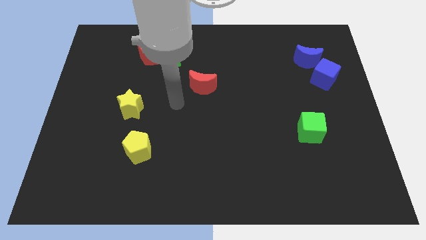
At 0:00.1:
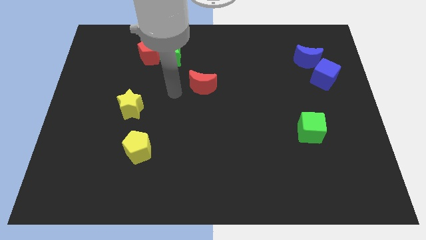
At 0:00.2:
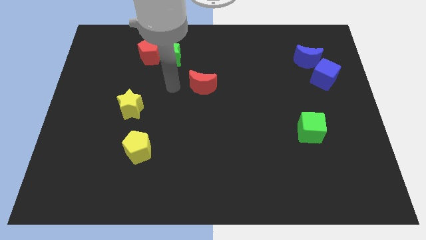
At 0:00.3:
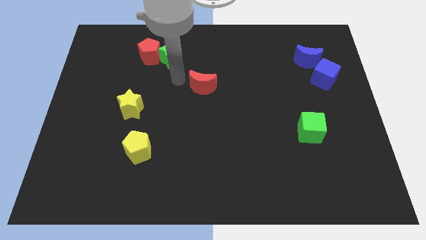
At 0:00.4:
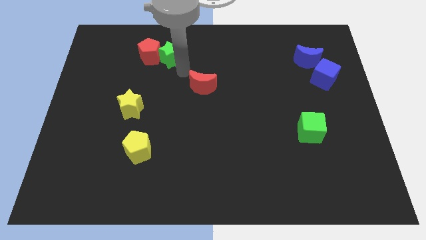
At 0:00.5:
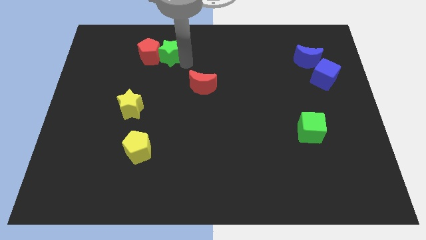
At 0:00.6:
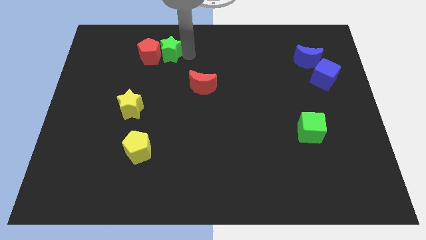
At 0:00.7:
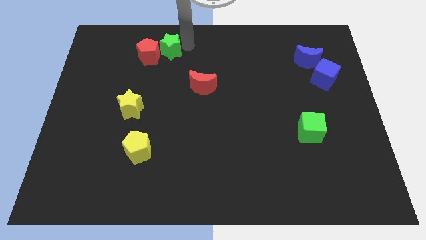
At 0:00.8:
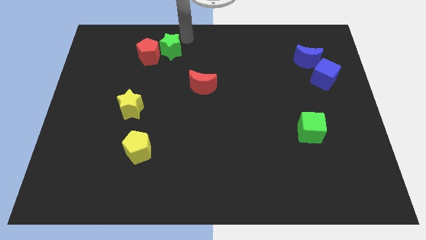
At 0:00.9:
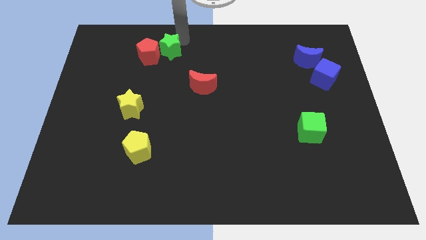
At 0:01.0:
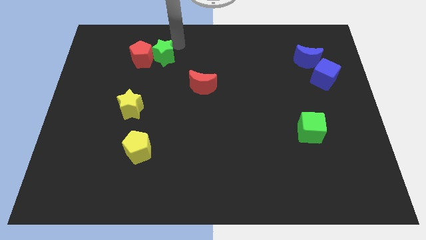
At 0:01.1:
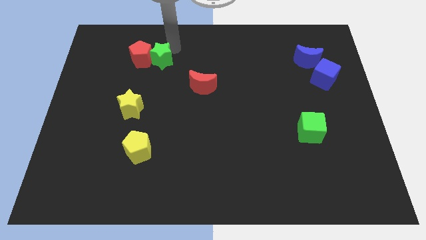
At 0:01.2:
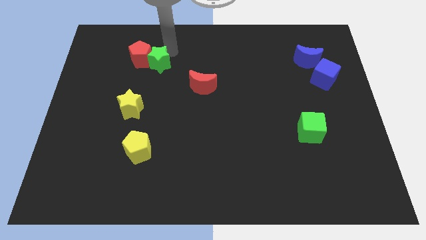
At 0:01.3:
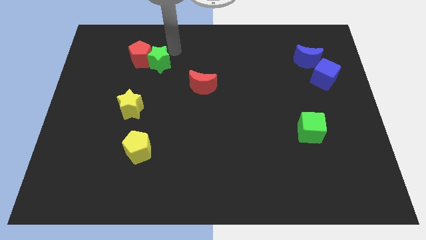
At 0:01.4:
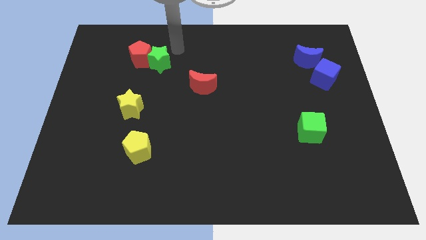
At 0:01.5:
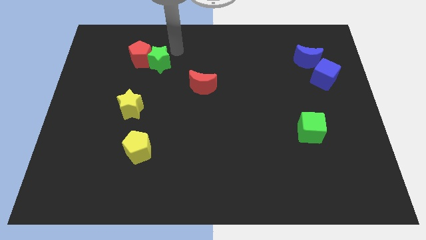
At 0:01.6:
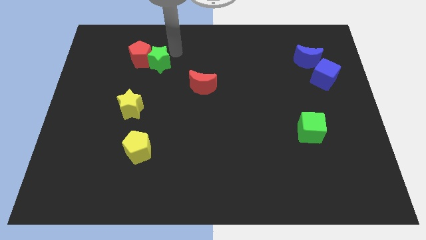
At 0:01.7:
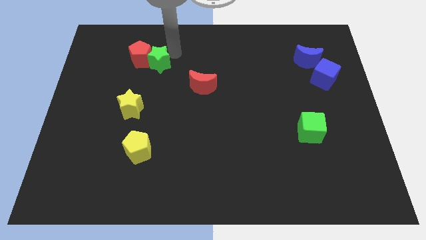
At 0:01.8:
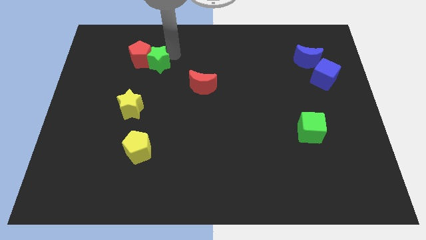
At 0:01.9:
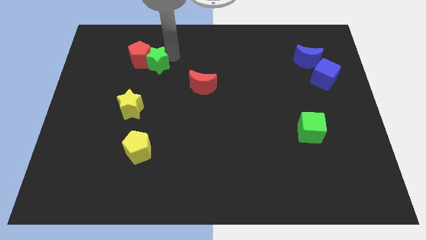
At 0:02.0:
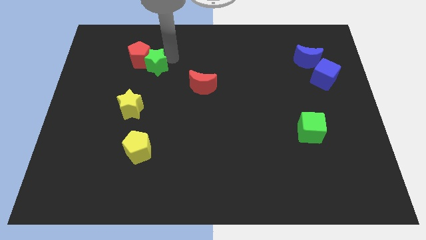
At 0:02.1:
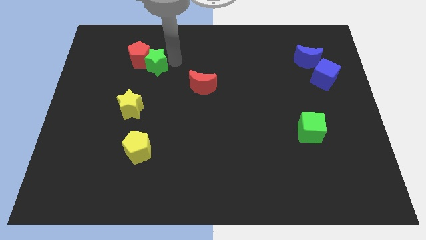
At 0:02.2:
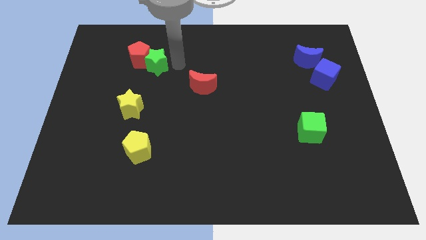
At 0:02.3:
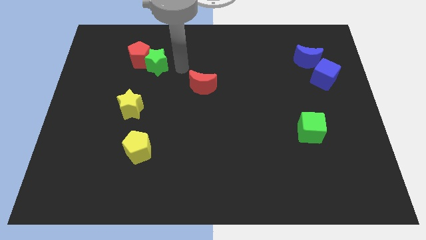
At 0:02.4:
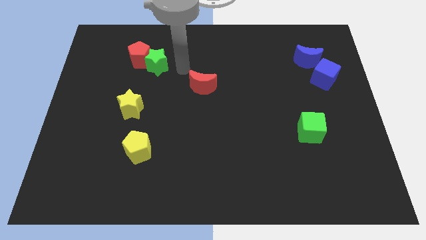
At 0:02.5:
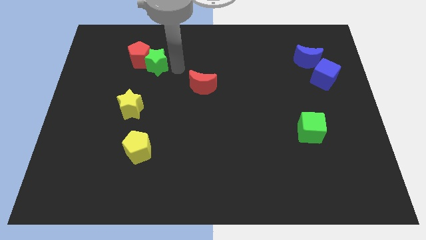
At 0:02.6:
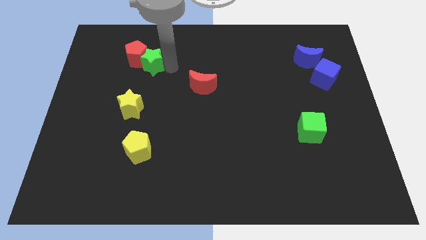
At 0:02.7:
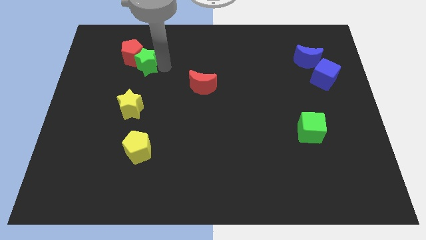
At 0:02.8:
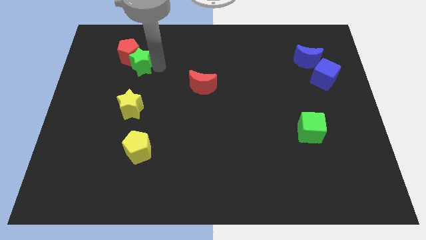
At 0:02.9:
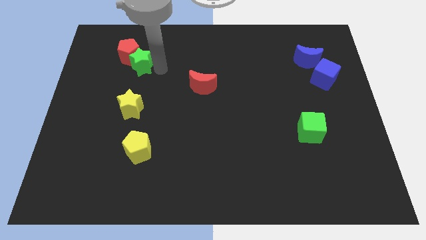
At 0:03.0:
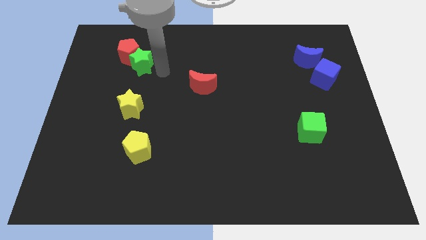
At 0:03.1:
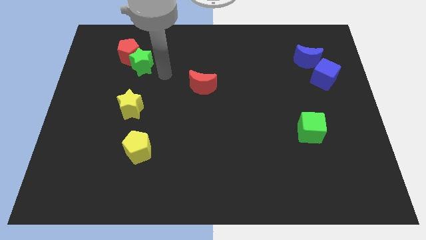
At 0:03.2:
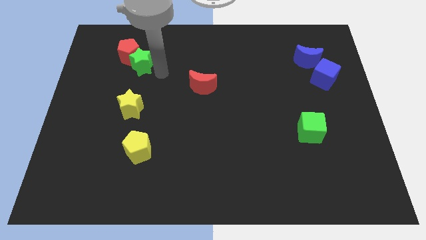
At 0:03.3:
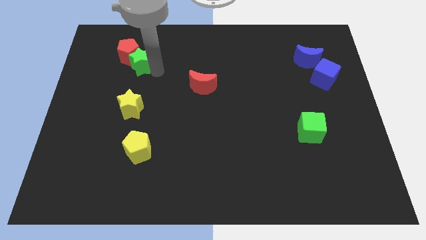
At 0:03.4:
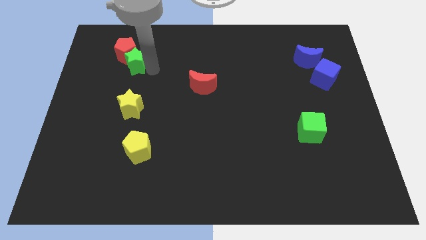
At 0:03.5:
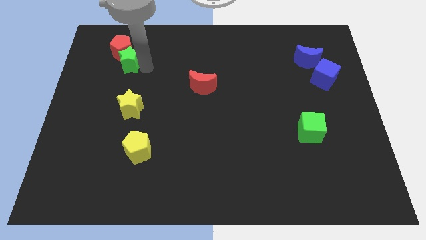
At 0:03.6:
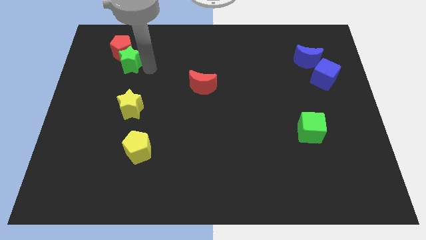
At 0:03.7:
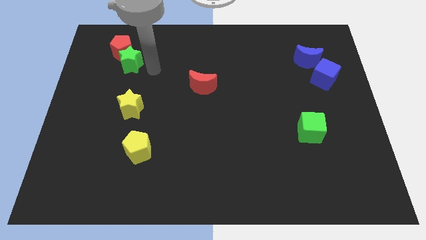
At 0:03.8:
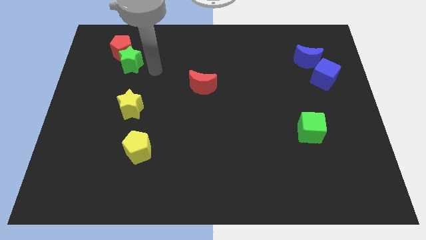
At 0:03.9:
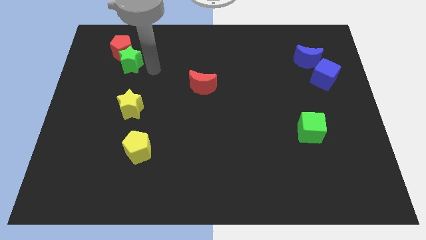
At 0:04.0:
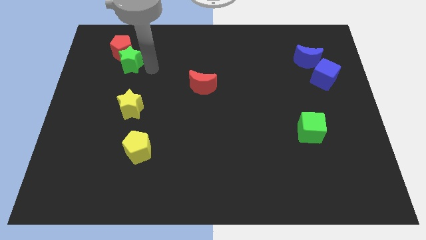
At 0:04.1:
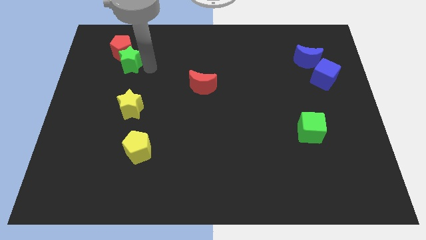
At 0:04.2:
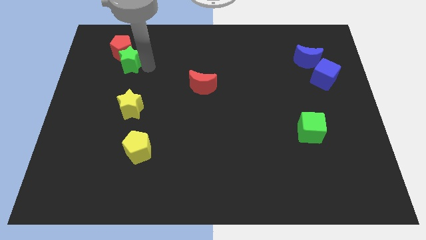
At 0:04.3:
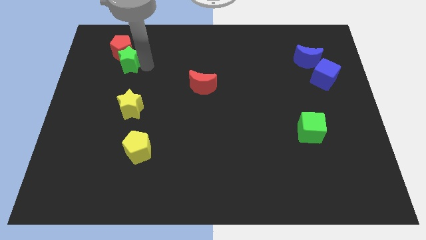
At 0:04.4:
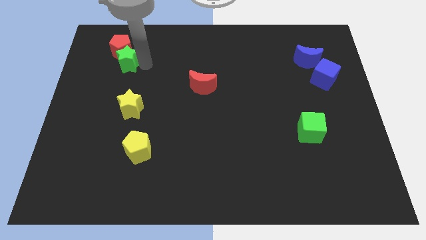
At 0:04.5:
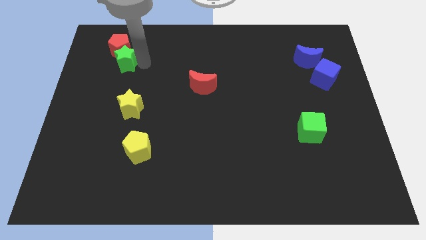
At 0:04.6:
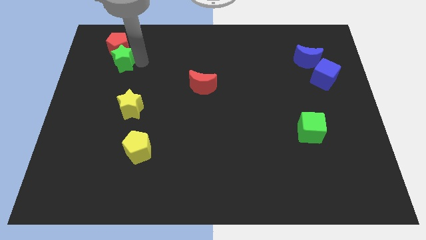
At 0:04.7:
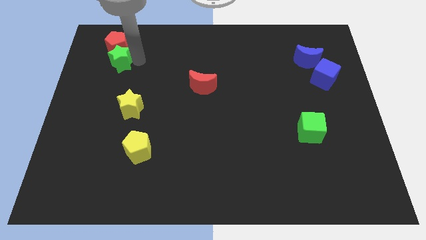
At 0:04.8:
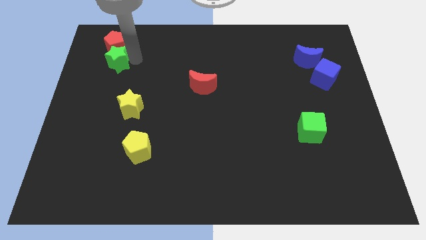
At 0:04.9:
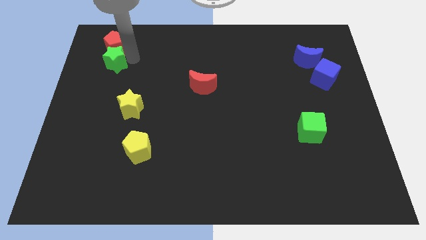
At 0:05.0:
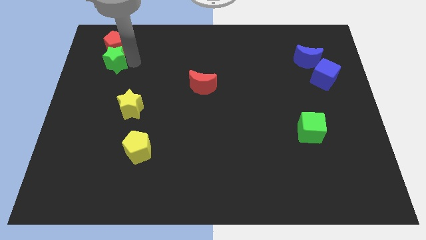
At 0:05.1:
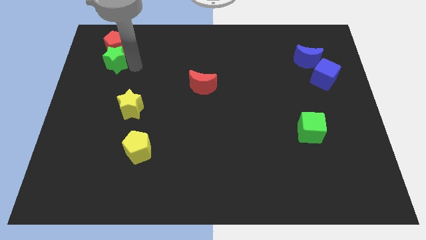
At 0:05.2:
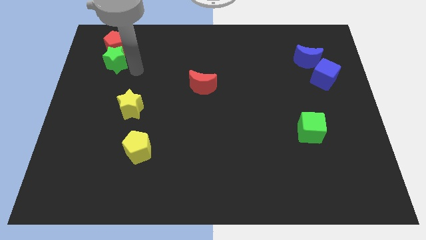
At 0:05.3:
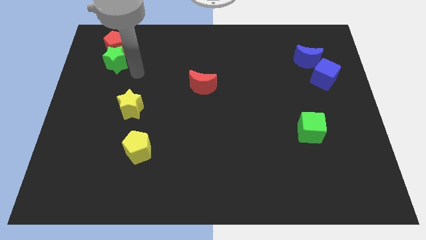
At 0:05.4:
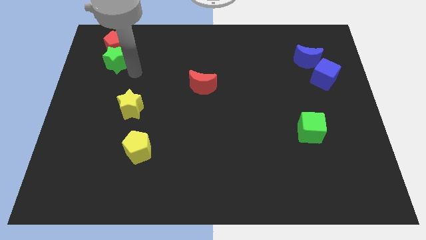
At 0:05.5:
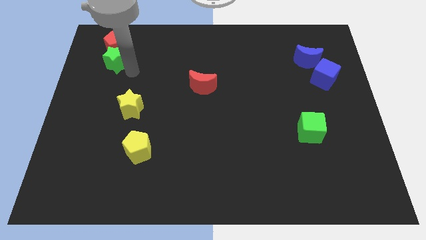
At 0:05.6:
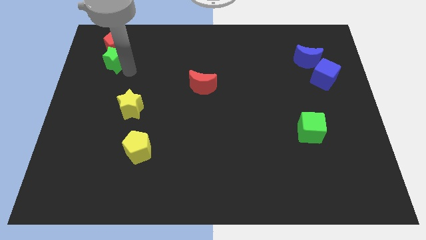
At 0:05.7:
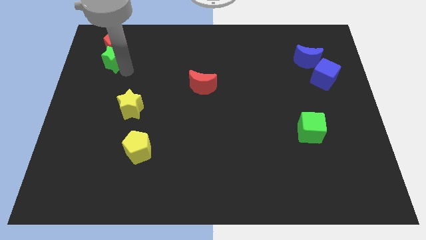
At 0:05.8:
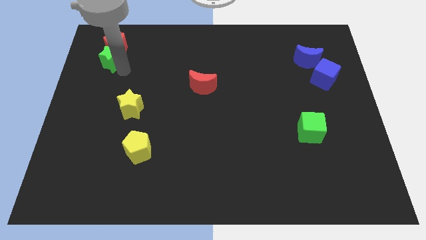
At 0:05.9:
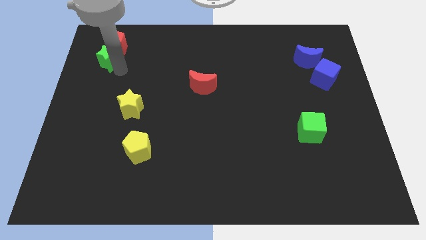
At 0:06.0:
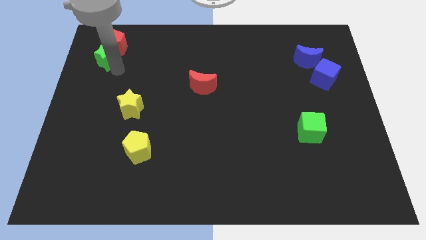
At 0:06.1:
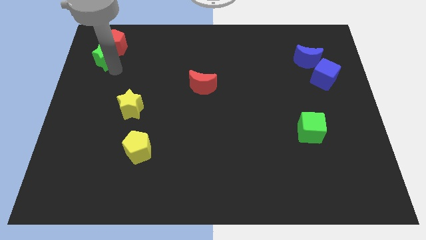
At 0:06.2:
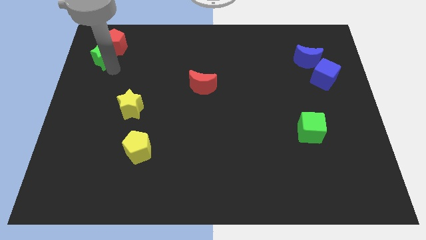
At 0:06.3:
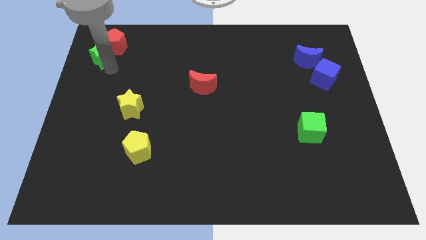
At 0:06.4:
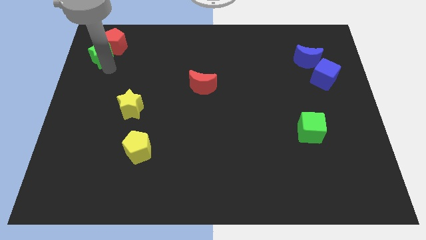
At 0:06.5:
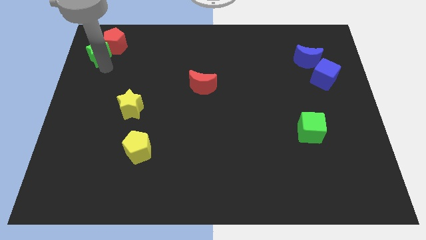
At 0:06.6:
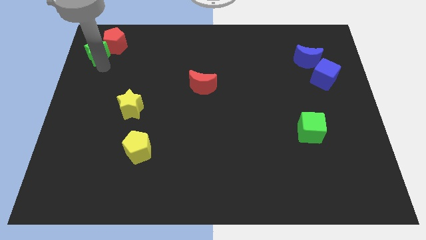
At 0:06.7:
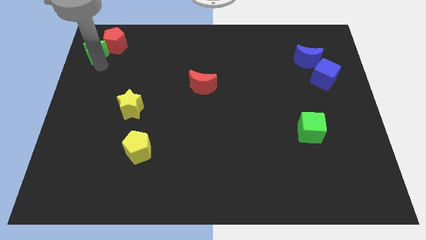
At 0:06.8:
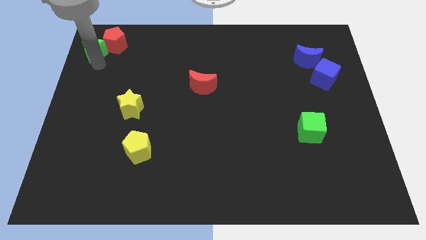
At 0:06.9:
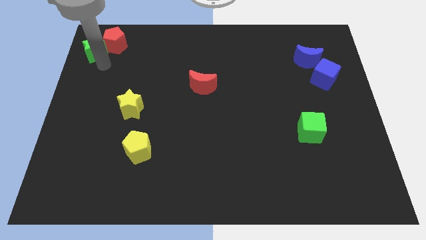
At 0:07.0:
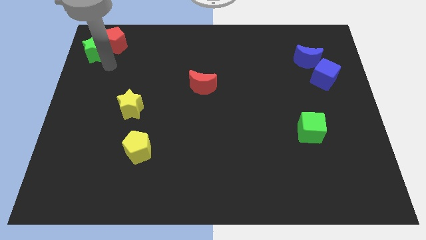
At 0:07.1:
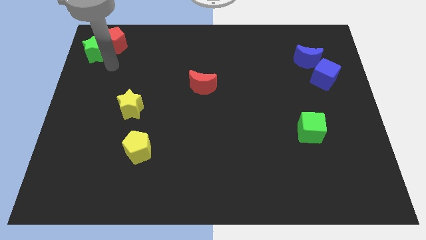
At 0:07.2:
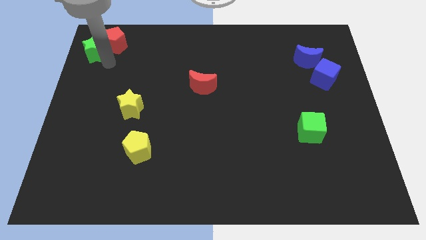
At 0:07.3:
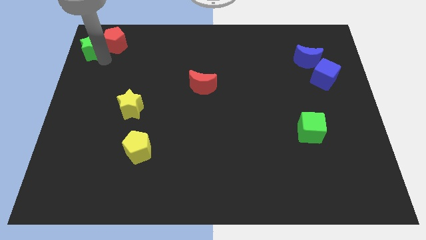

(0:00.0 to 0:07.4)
put the green star to the top left
